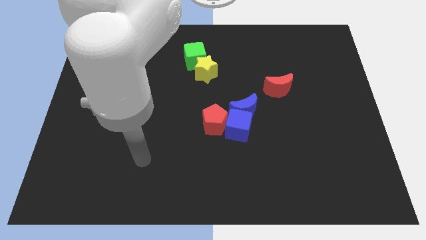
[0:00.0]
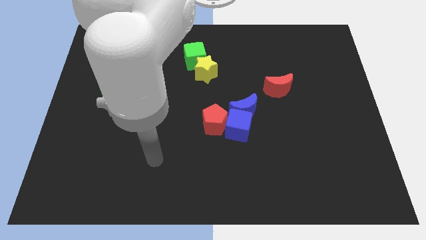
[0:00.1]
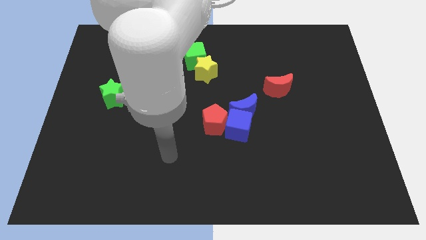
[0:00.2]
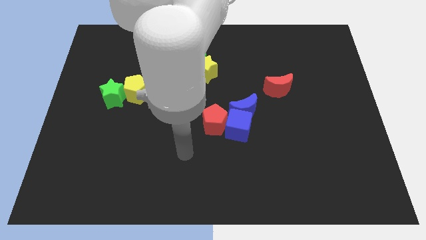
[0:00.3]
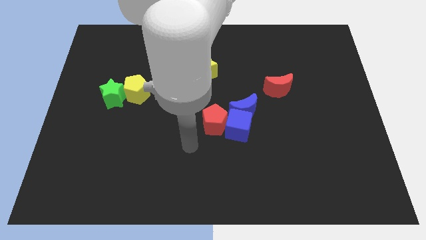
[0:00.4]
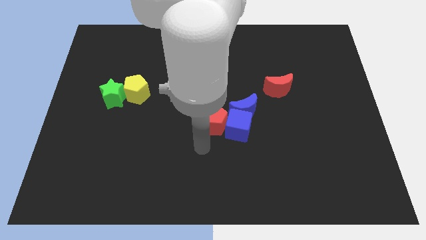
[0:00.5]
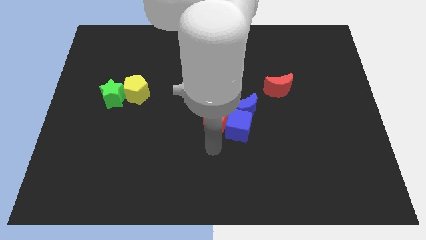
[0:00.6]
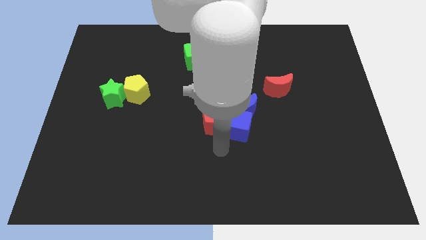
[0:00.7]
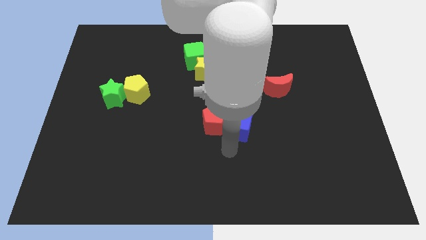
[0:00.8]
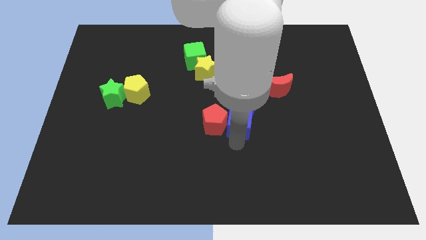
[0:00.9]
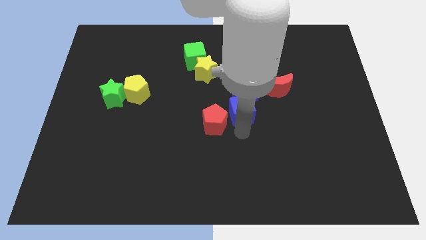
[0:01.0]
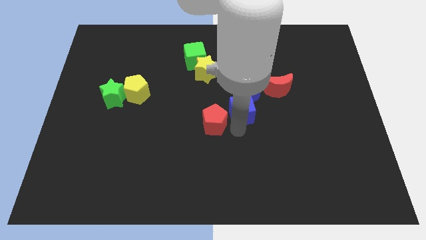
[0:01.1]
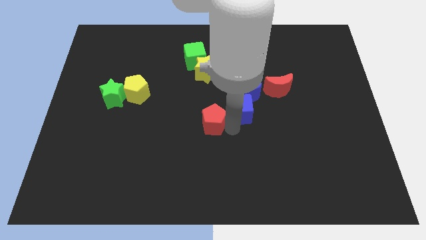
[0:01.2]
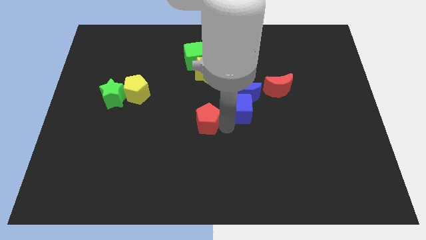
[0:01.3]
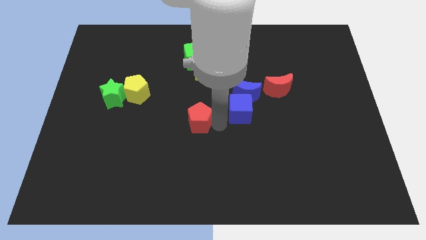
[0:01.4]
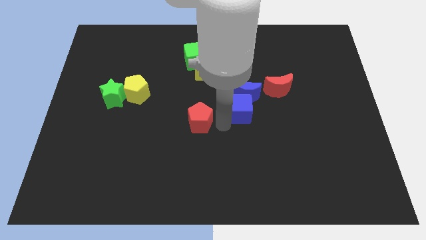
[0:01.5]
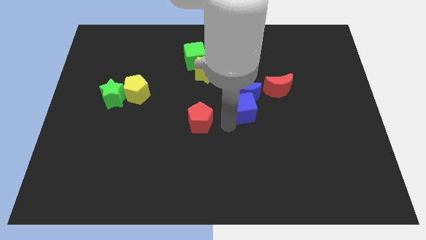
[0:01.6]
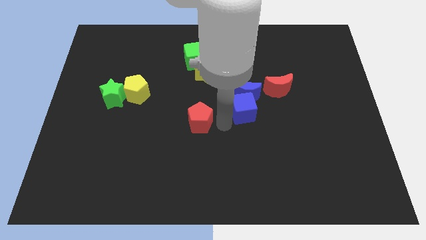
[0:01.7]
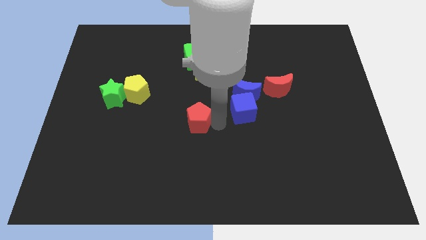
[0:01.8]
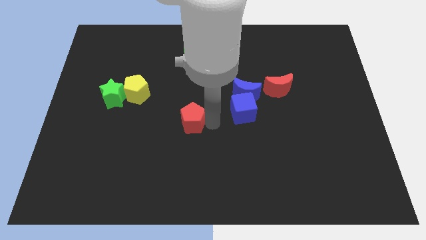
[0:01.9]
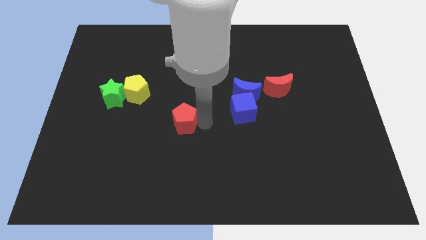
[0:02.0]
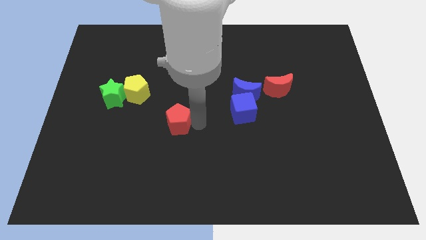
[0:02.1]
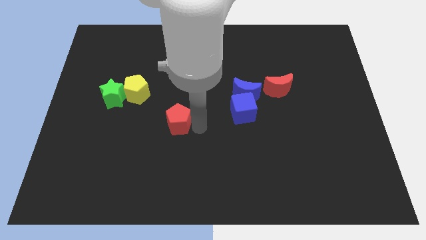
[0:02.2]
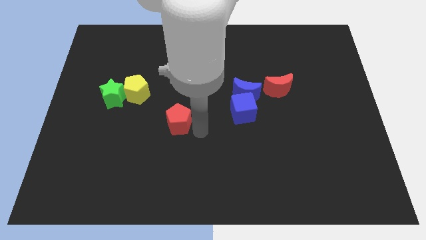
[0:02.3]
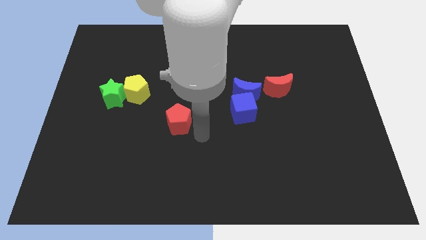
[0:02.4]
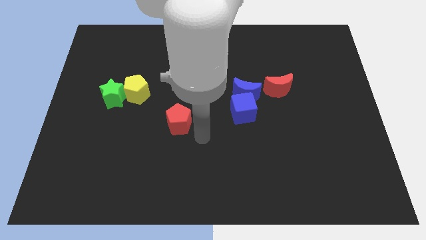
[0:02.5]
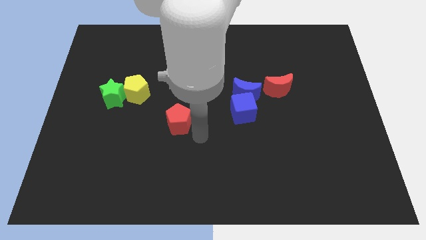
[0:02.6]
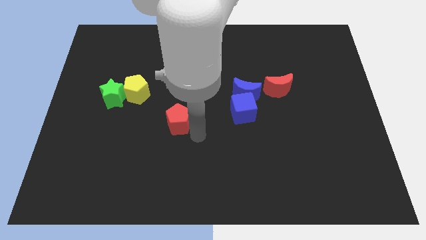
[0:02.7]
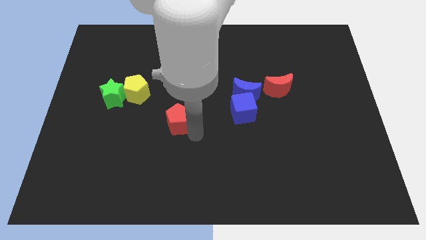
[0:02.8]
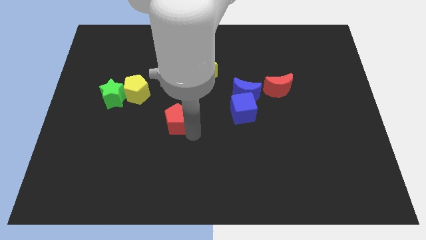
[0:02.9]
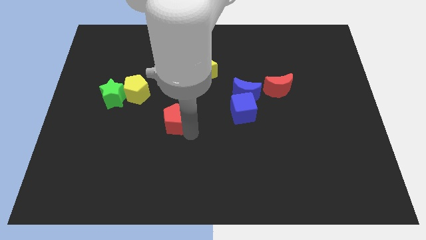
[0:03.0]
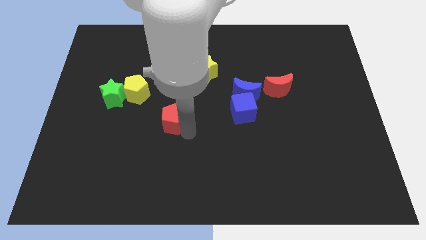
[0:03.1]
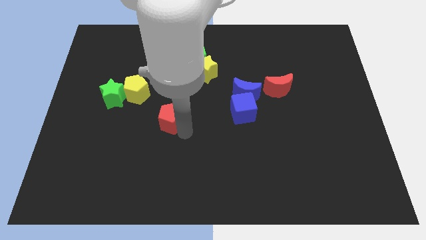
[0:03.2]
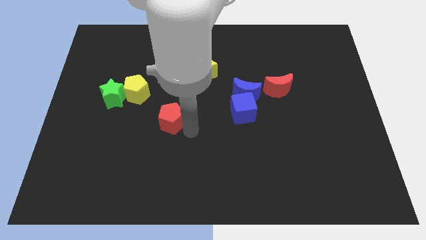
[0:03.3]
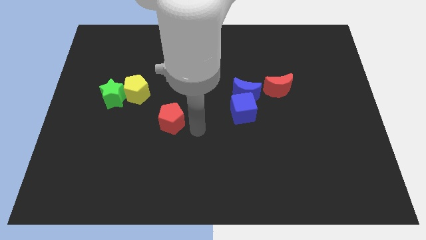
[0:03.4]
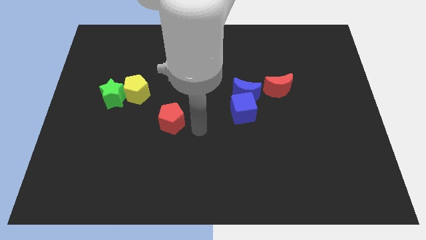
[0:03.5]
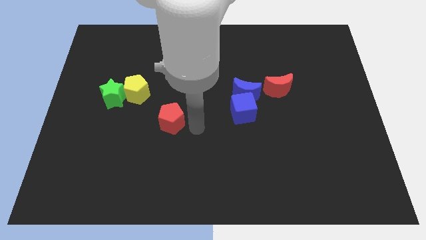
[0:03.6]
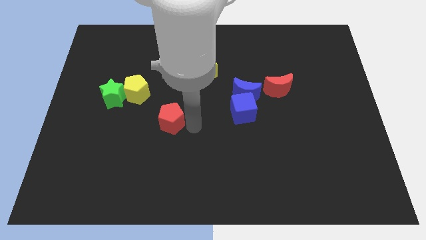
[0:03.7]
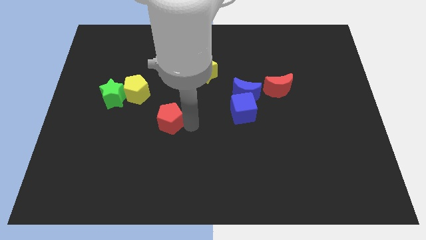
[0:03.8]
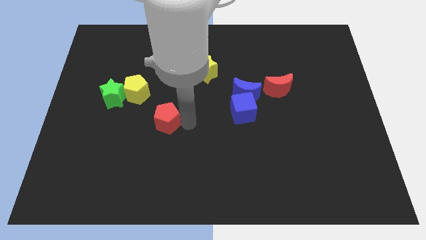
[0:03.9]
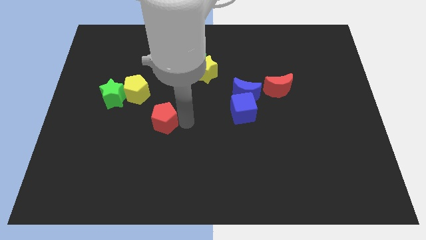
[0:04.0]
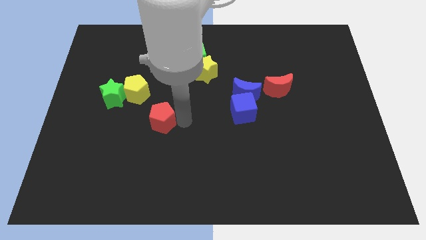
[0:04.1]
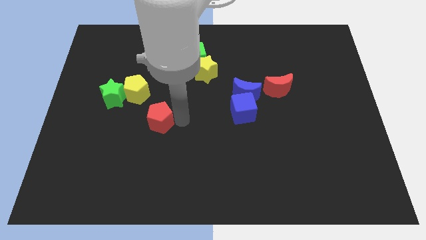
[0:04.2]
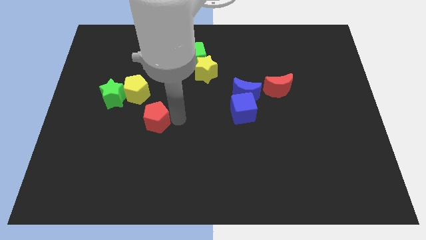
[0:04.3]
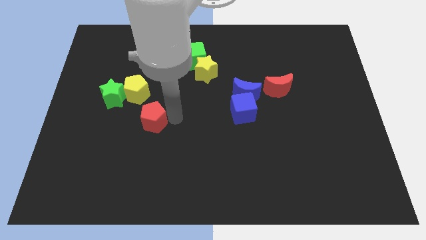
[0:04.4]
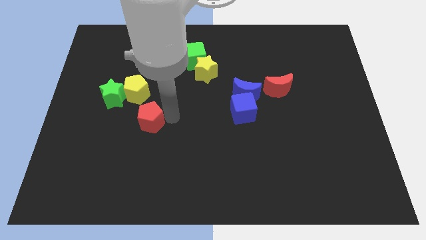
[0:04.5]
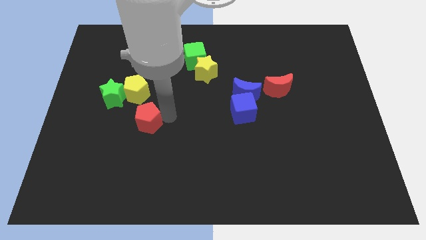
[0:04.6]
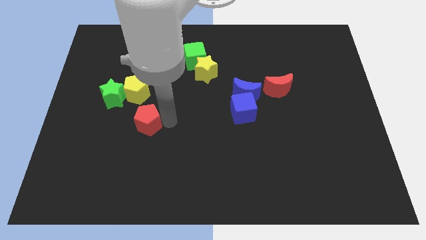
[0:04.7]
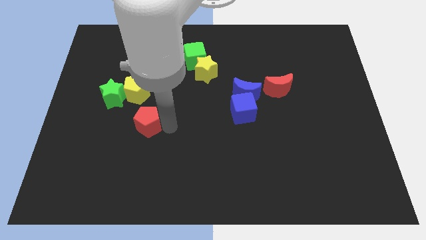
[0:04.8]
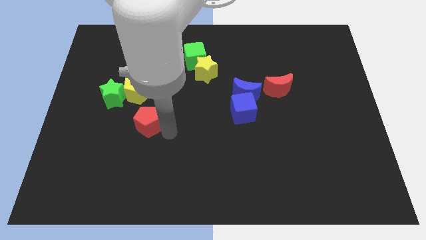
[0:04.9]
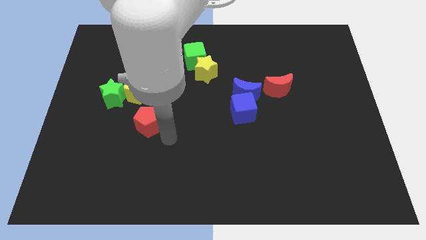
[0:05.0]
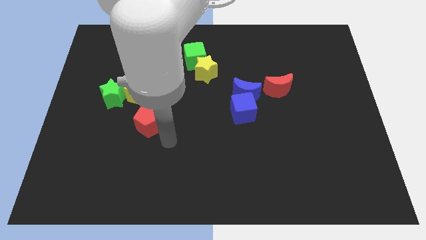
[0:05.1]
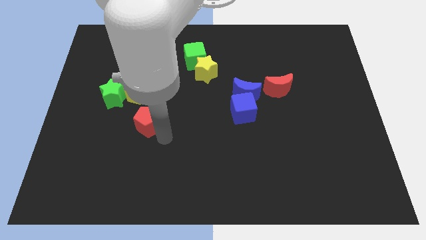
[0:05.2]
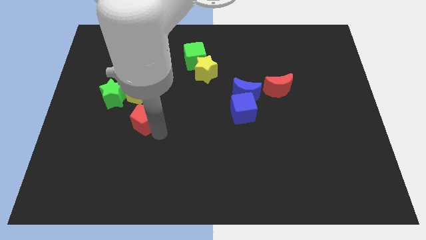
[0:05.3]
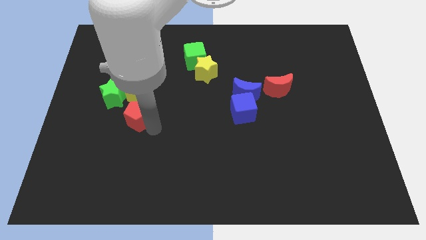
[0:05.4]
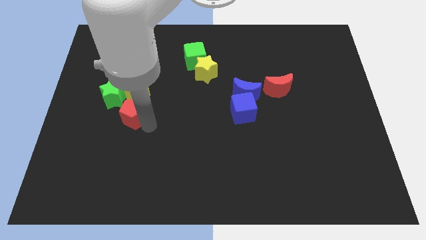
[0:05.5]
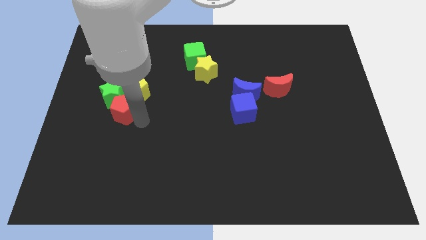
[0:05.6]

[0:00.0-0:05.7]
move the red pentagon next to the green star

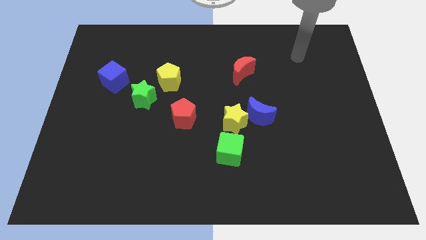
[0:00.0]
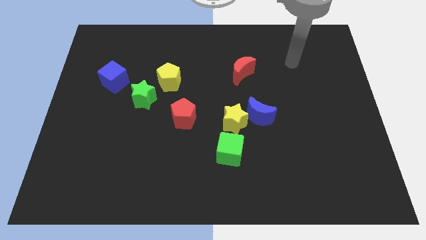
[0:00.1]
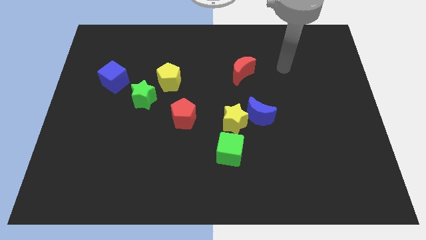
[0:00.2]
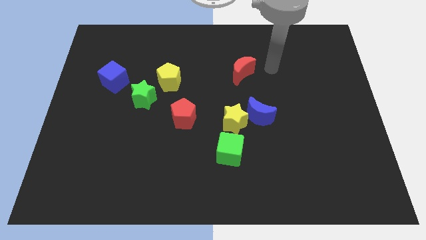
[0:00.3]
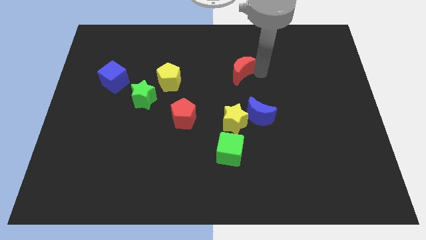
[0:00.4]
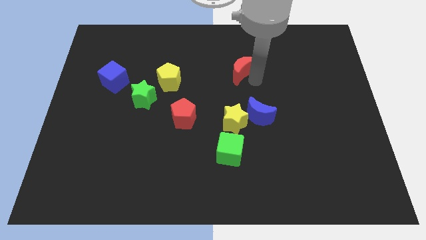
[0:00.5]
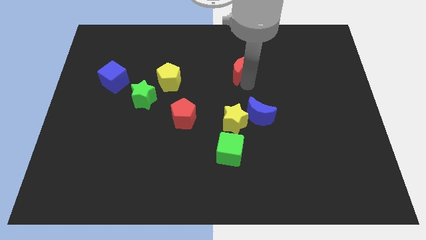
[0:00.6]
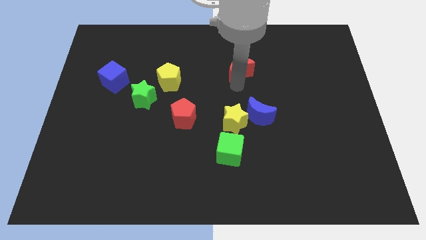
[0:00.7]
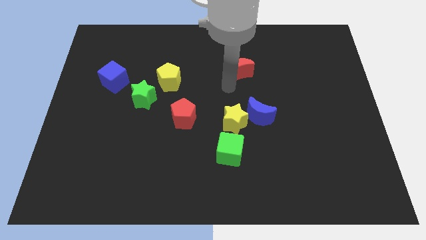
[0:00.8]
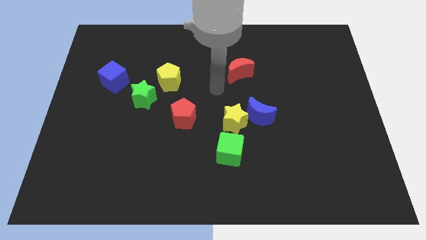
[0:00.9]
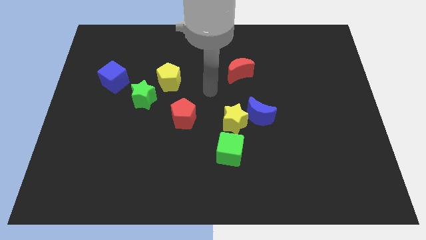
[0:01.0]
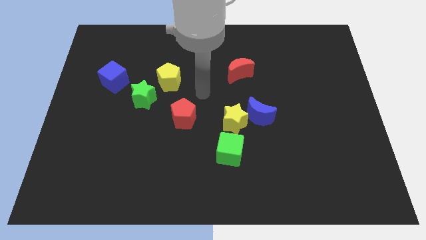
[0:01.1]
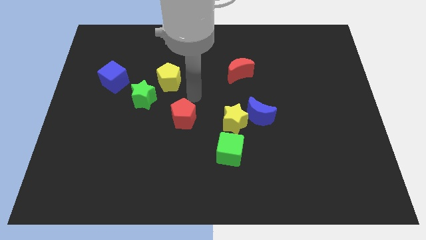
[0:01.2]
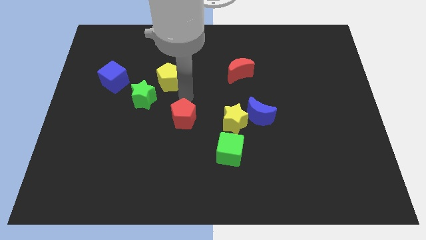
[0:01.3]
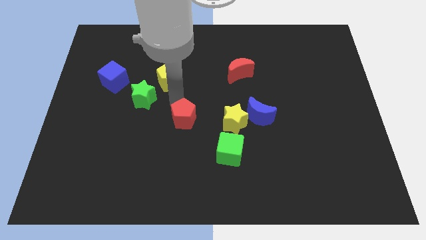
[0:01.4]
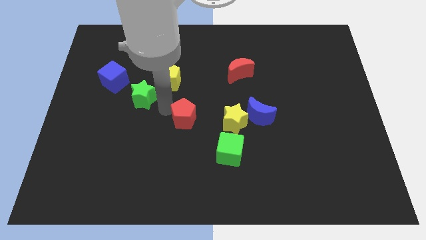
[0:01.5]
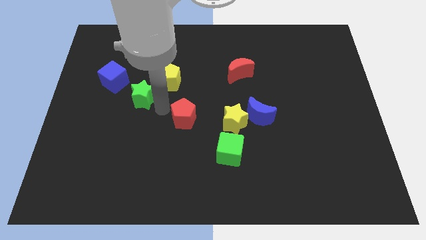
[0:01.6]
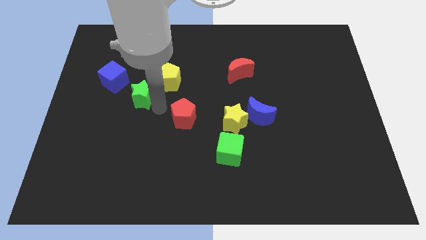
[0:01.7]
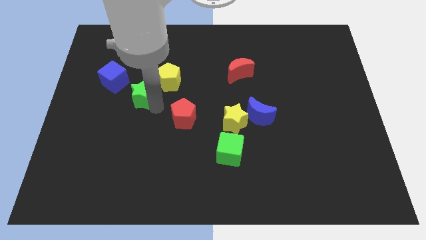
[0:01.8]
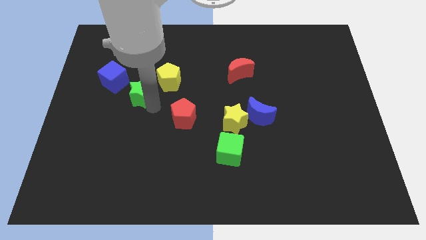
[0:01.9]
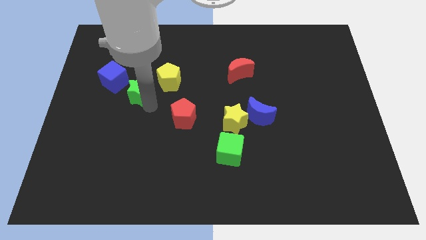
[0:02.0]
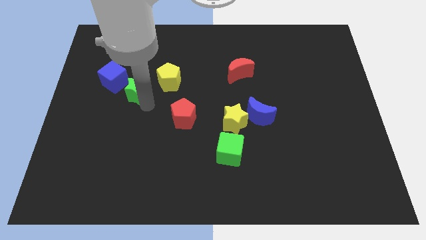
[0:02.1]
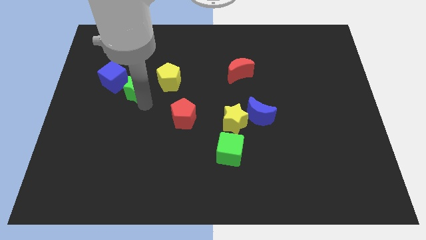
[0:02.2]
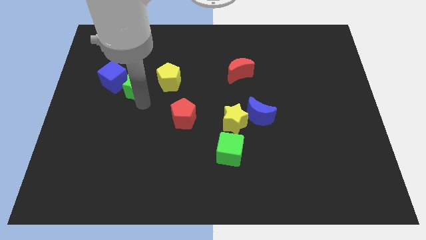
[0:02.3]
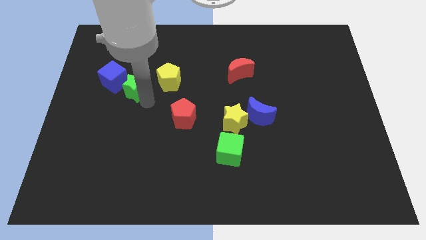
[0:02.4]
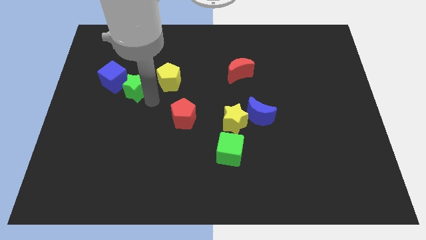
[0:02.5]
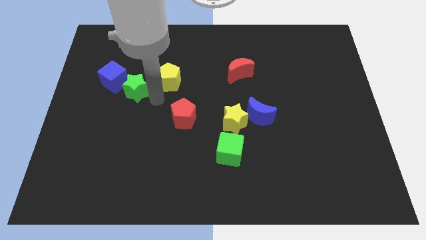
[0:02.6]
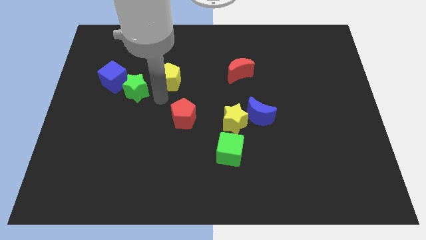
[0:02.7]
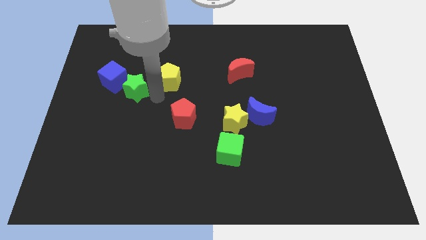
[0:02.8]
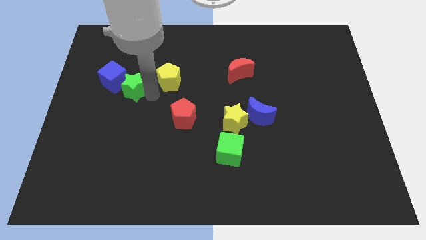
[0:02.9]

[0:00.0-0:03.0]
slide the green star towards the blue cube
